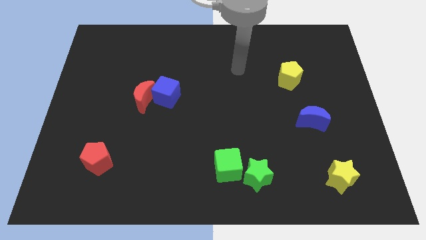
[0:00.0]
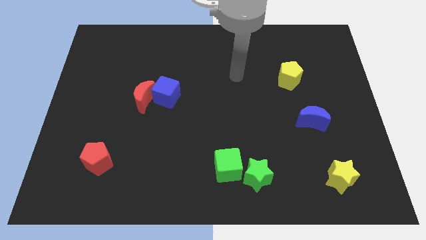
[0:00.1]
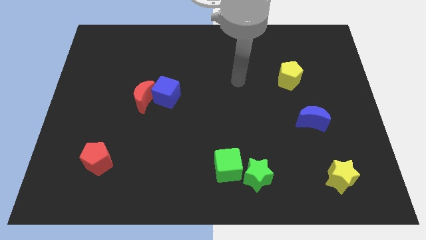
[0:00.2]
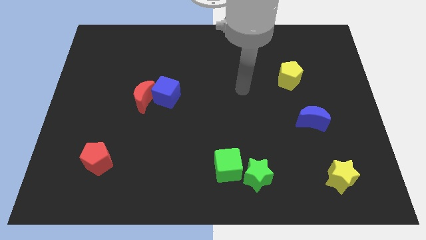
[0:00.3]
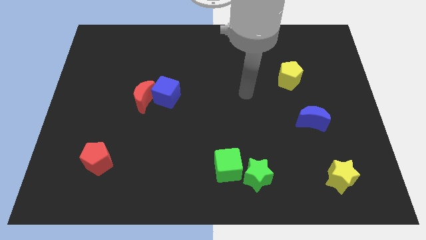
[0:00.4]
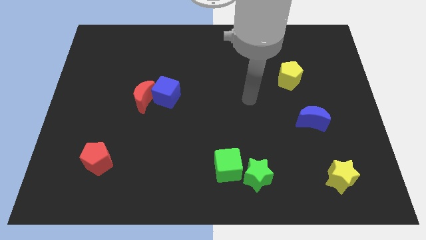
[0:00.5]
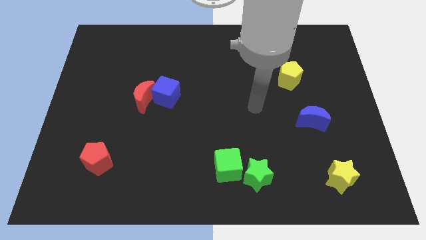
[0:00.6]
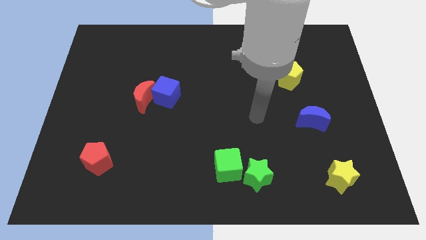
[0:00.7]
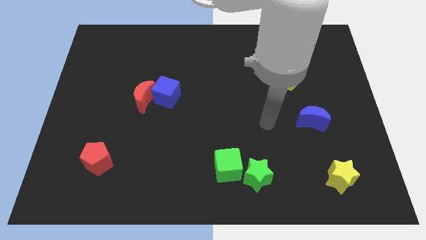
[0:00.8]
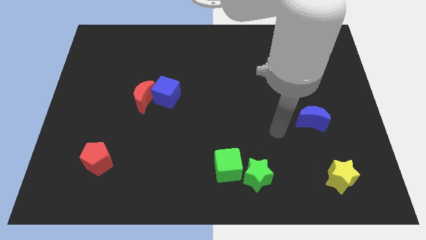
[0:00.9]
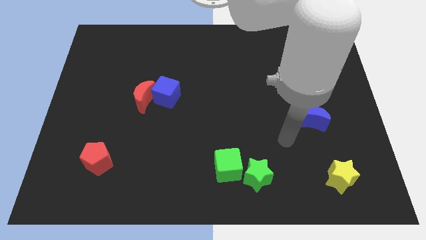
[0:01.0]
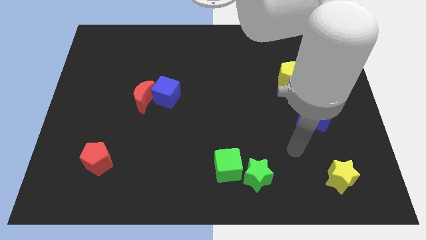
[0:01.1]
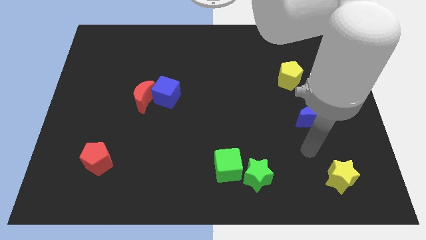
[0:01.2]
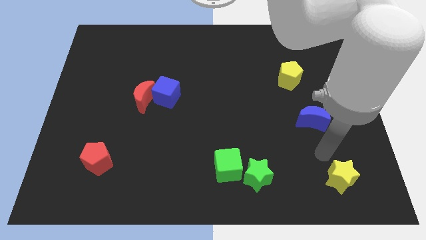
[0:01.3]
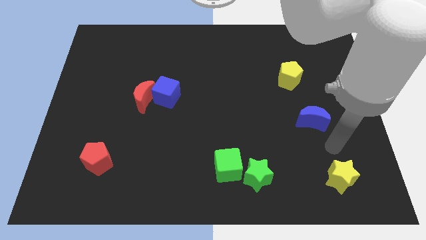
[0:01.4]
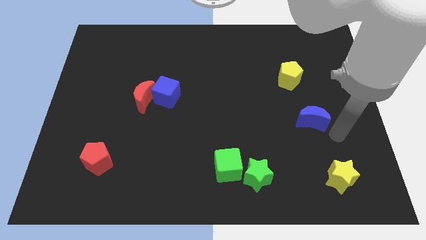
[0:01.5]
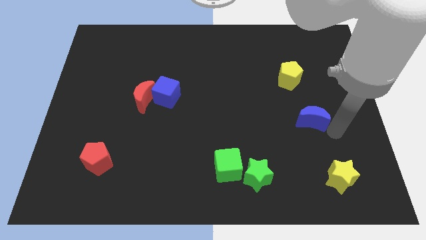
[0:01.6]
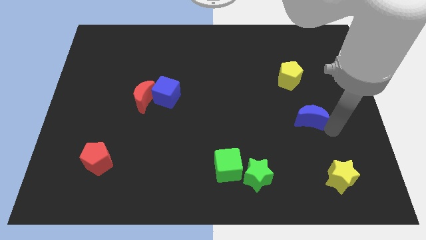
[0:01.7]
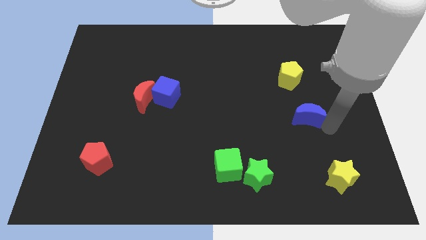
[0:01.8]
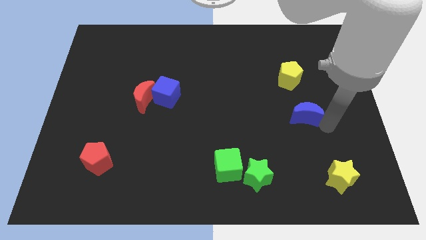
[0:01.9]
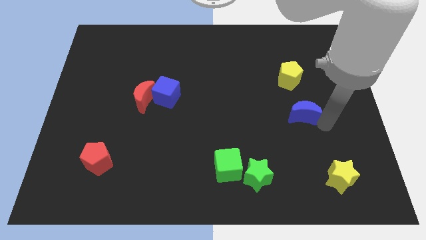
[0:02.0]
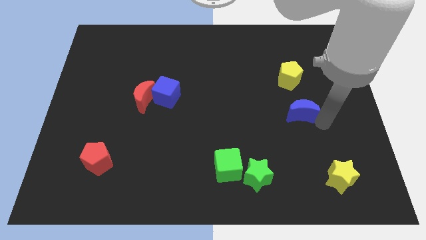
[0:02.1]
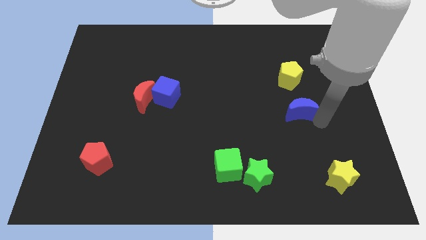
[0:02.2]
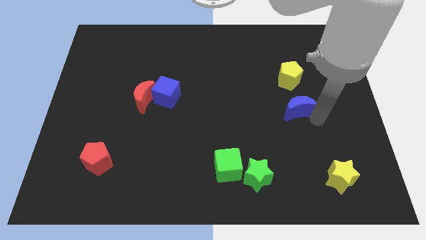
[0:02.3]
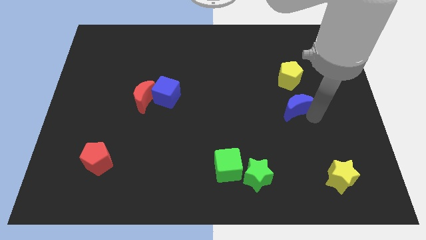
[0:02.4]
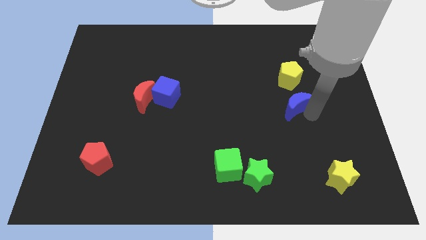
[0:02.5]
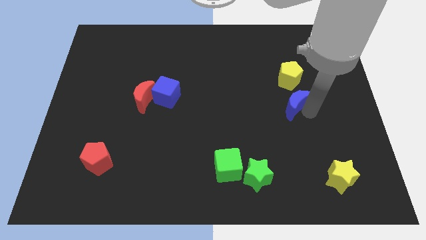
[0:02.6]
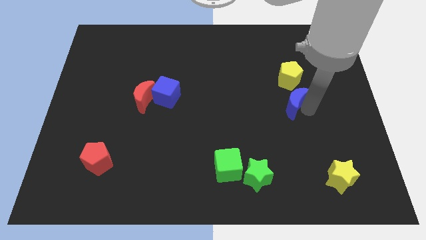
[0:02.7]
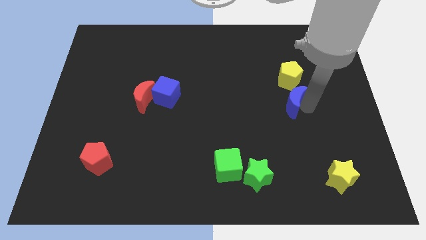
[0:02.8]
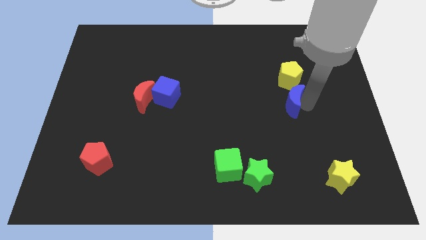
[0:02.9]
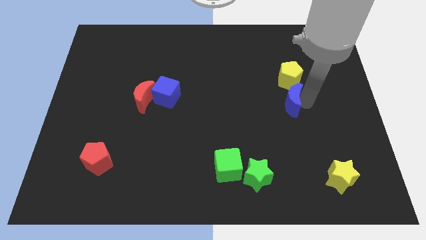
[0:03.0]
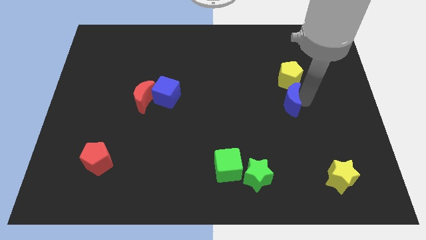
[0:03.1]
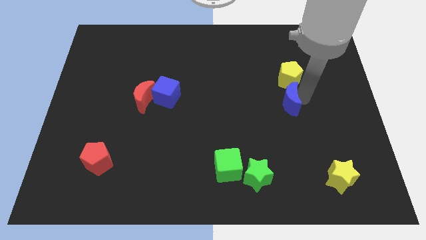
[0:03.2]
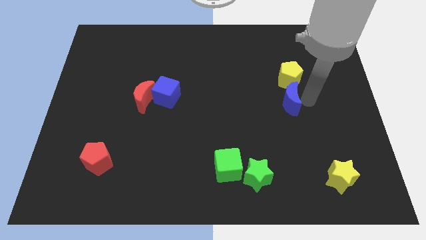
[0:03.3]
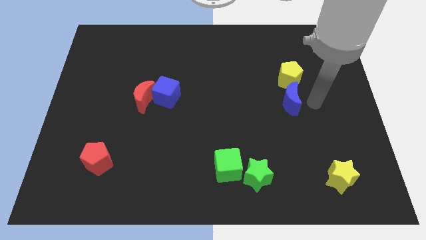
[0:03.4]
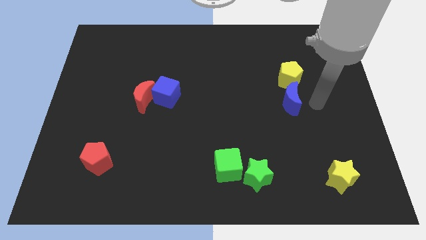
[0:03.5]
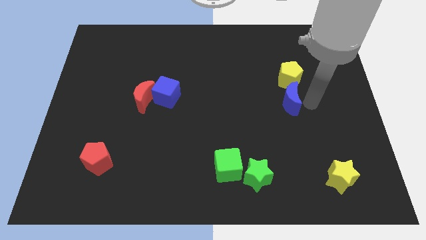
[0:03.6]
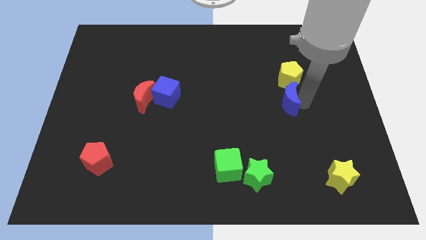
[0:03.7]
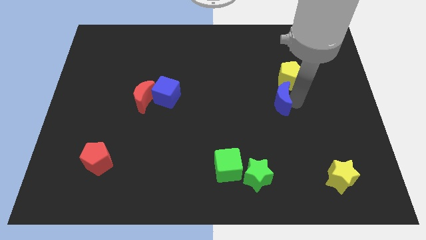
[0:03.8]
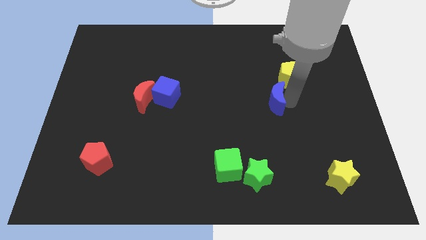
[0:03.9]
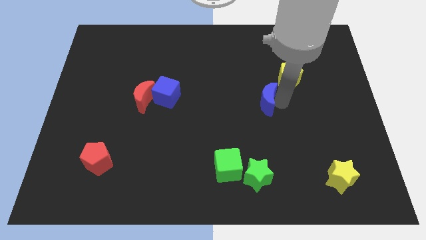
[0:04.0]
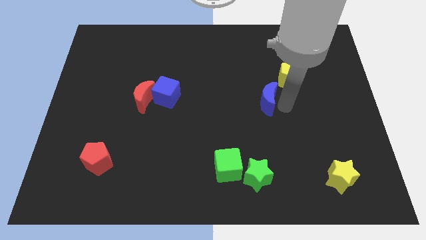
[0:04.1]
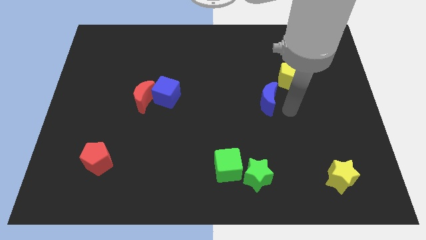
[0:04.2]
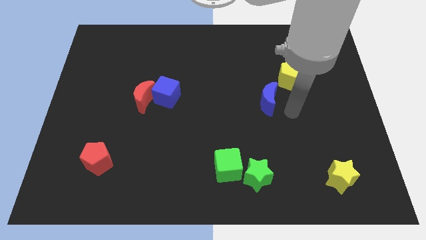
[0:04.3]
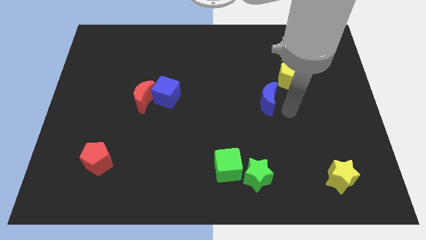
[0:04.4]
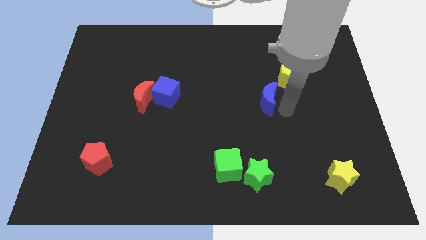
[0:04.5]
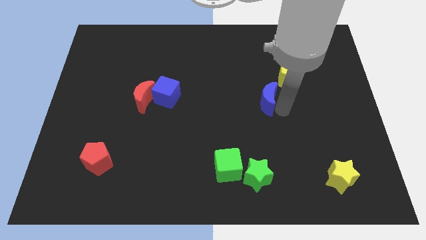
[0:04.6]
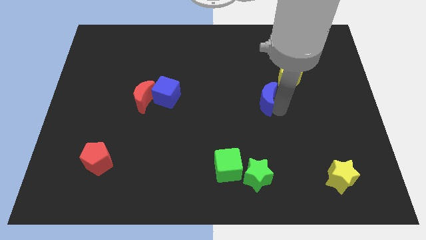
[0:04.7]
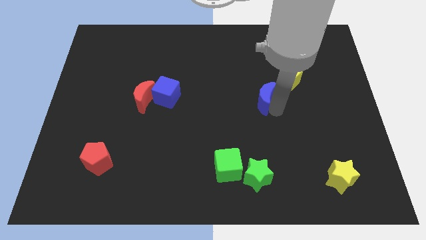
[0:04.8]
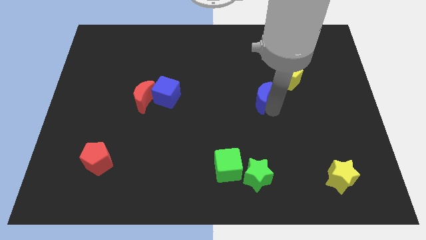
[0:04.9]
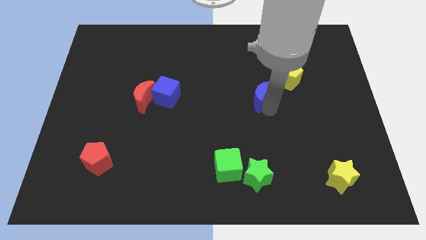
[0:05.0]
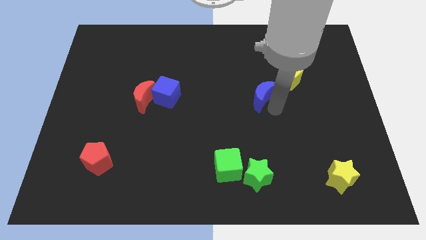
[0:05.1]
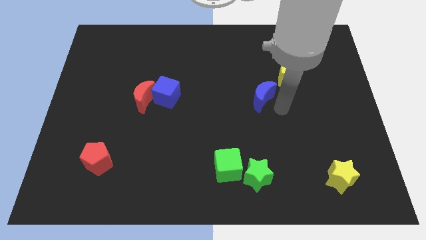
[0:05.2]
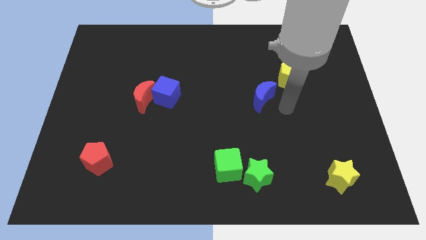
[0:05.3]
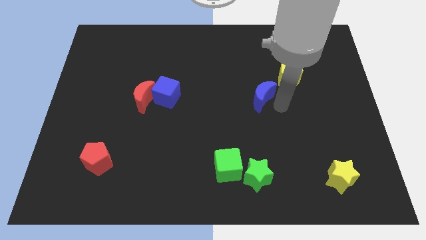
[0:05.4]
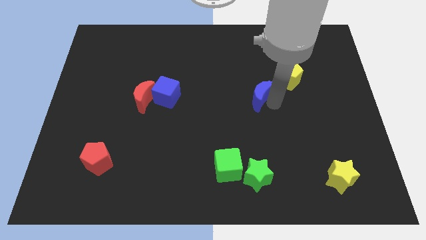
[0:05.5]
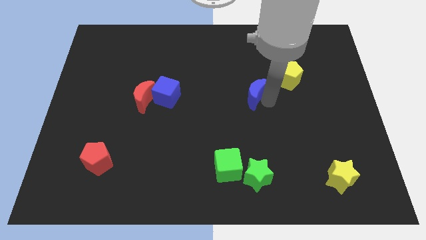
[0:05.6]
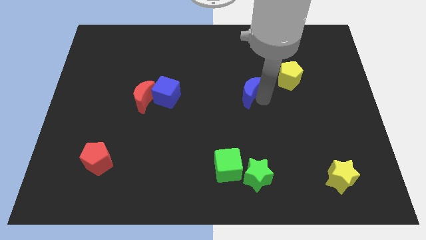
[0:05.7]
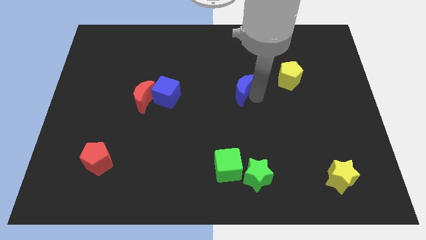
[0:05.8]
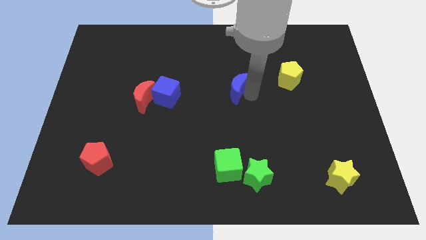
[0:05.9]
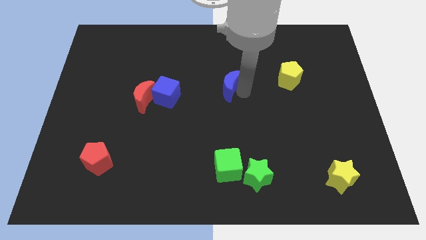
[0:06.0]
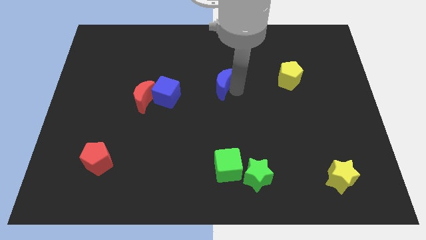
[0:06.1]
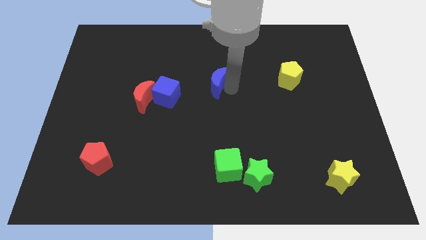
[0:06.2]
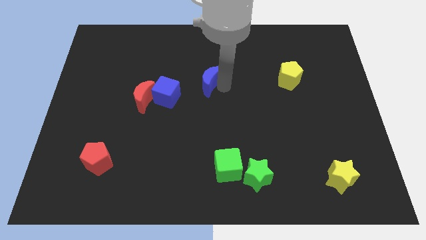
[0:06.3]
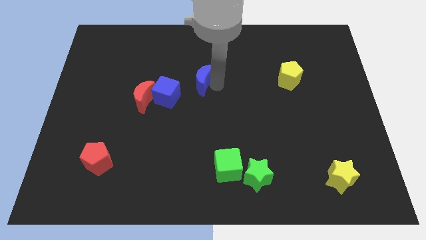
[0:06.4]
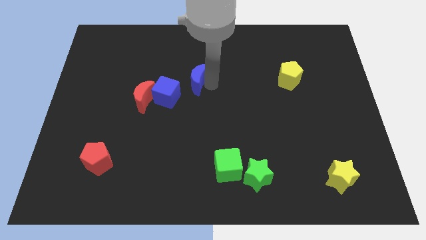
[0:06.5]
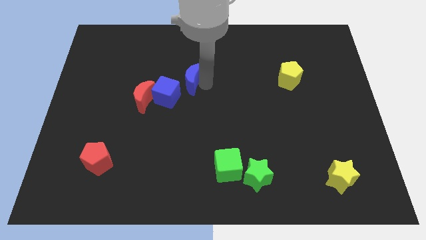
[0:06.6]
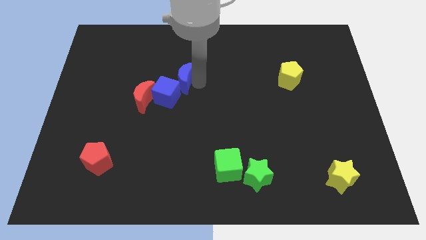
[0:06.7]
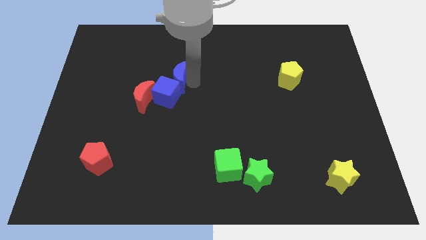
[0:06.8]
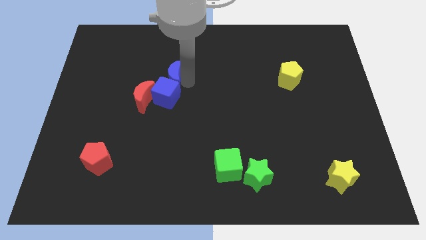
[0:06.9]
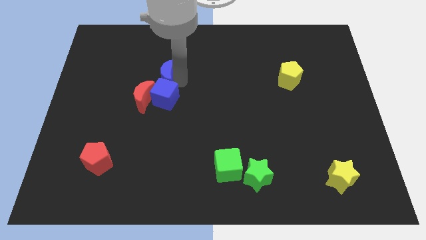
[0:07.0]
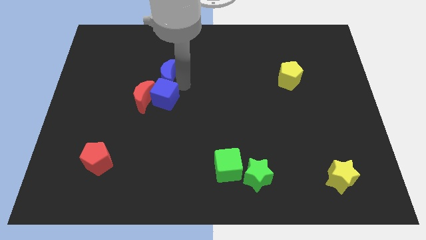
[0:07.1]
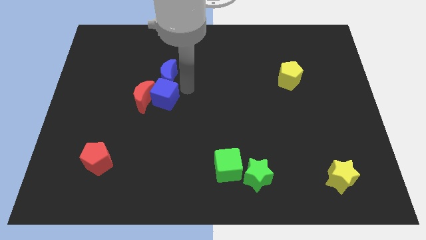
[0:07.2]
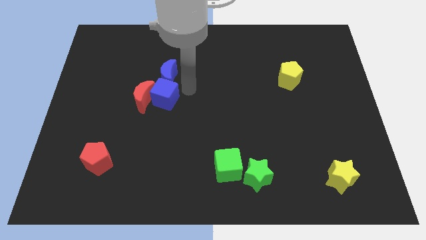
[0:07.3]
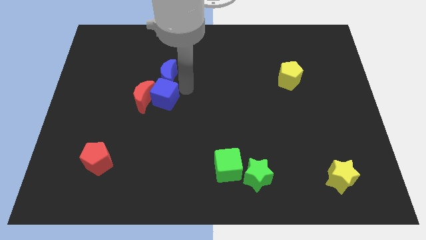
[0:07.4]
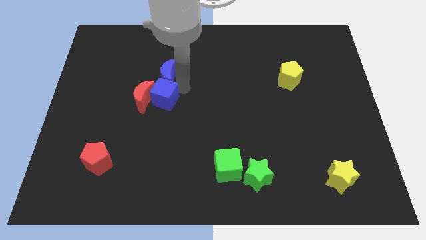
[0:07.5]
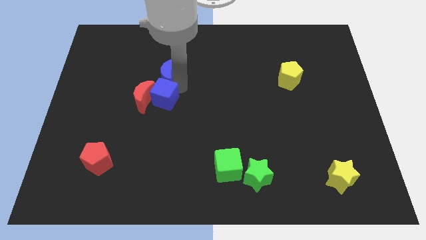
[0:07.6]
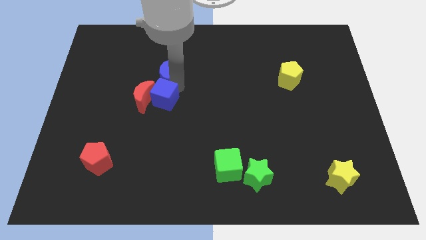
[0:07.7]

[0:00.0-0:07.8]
move the blue moon to the top of the red moon
